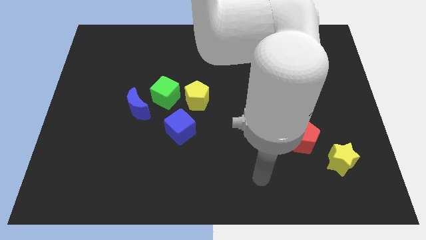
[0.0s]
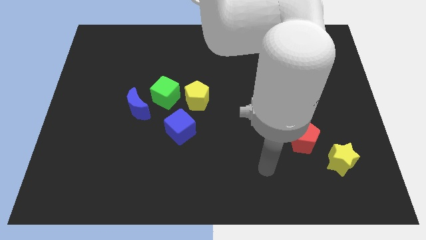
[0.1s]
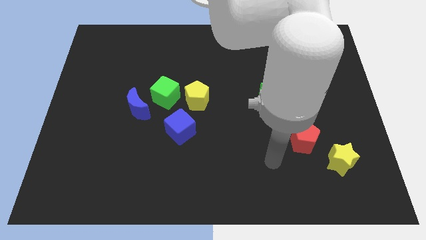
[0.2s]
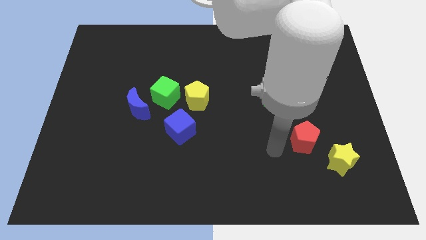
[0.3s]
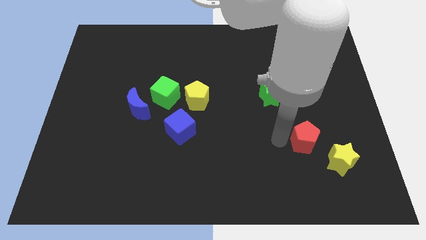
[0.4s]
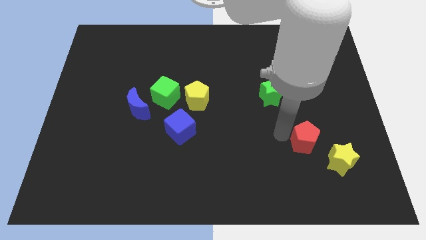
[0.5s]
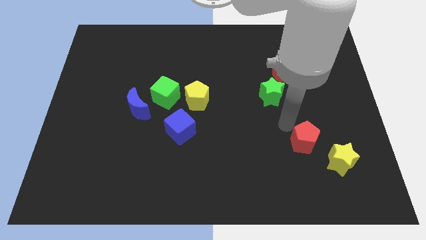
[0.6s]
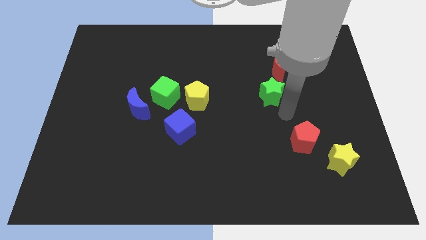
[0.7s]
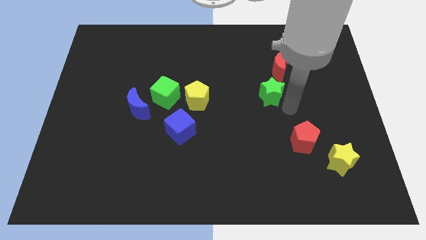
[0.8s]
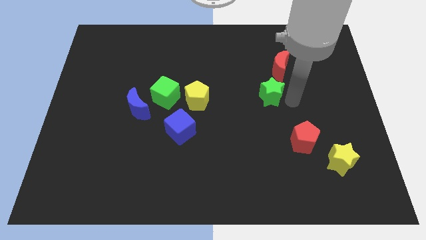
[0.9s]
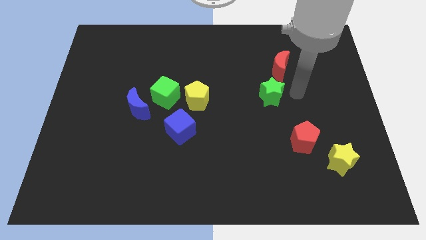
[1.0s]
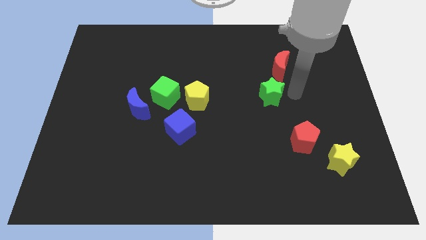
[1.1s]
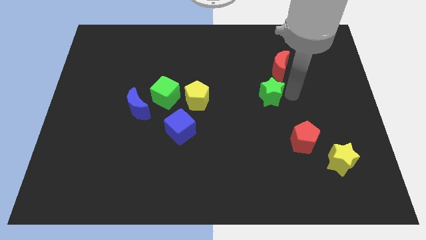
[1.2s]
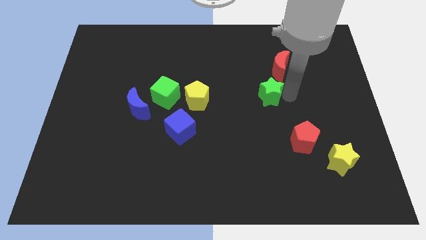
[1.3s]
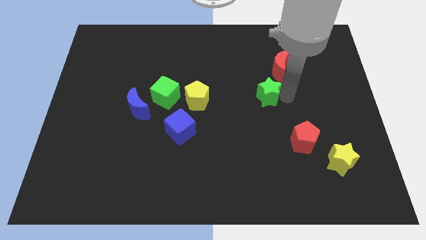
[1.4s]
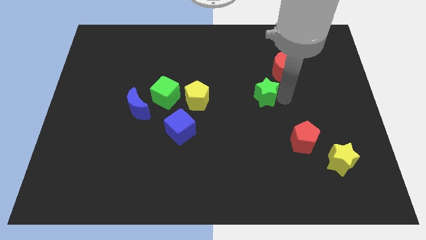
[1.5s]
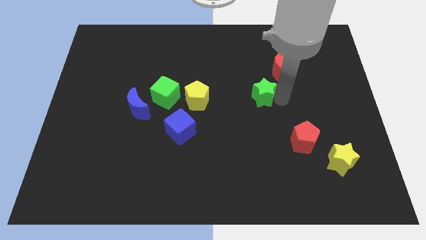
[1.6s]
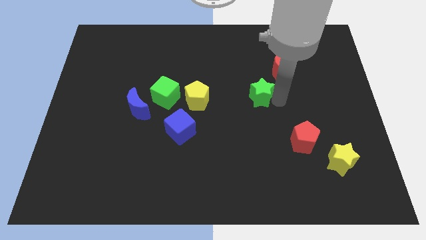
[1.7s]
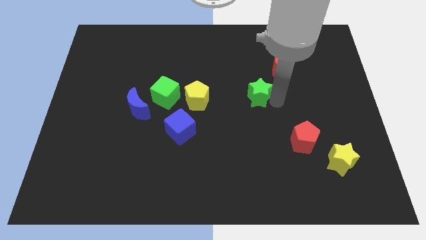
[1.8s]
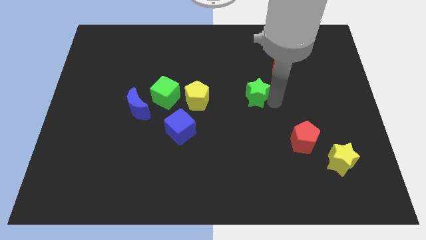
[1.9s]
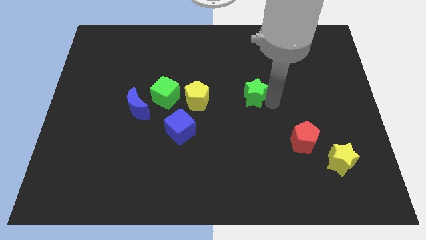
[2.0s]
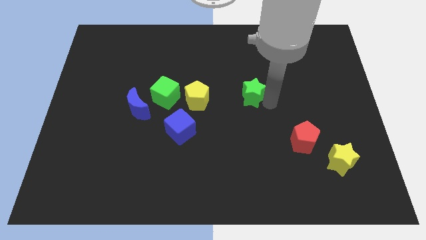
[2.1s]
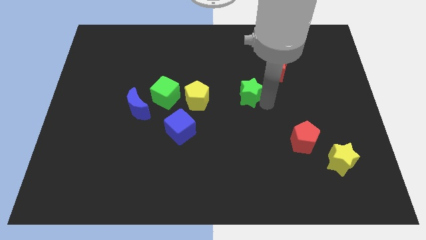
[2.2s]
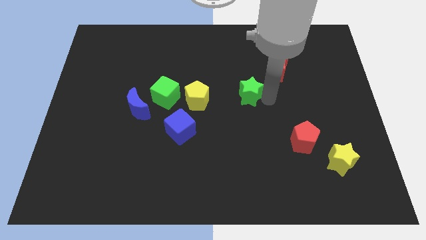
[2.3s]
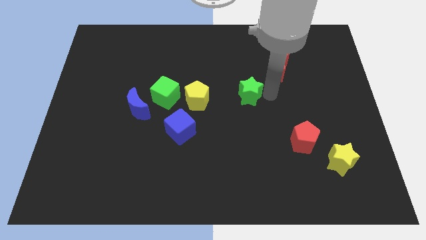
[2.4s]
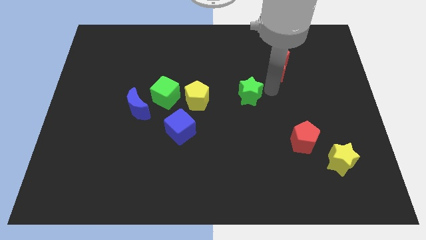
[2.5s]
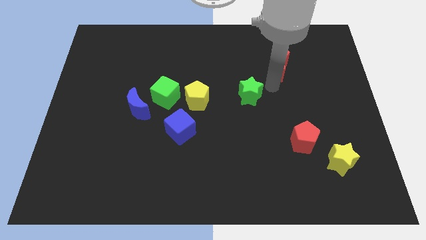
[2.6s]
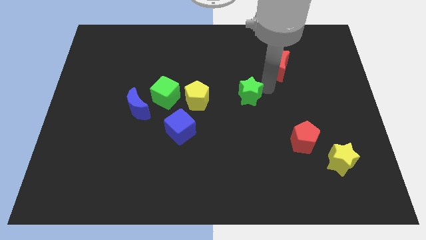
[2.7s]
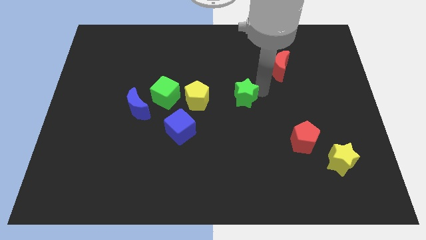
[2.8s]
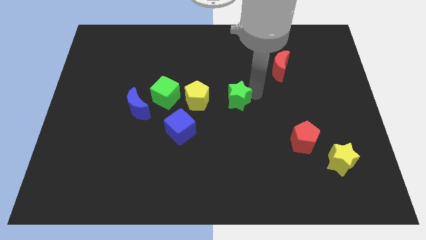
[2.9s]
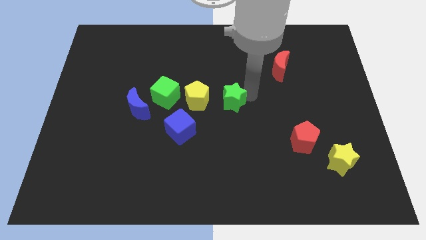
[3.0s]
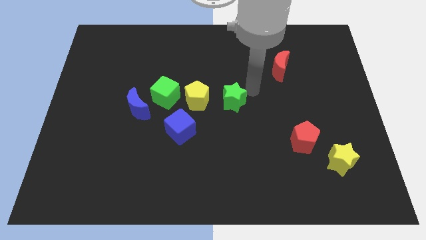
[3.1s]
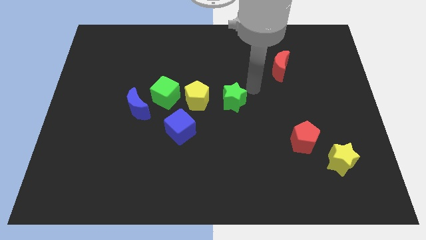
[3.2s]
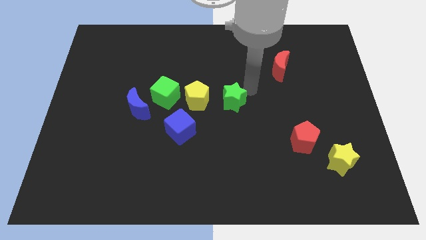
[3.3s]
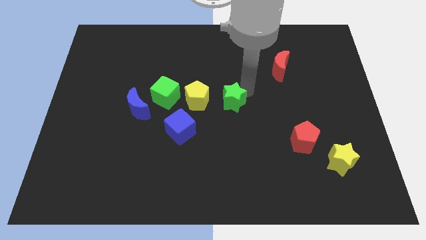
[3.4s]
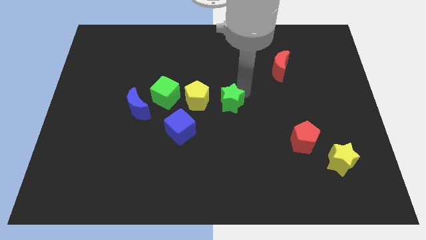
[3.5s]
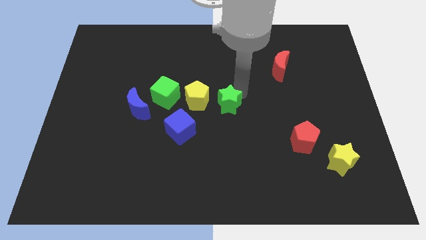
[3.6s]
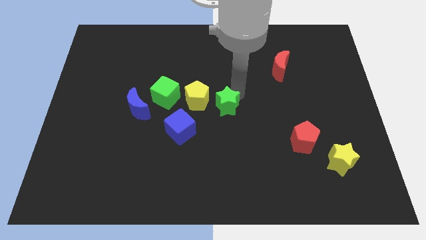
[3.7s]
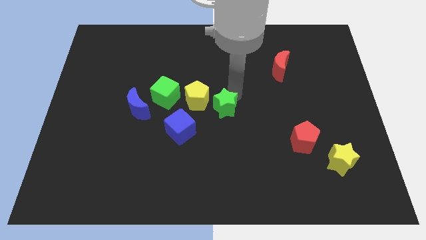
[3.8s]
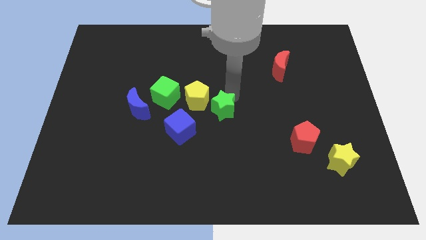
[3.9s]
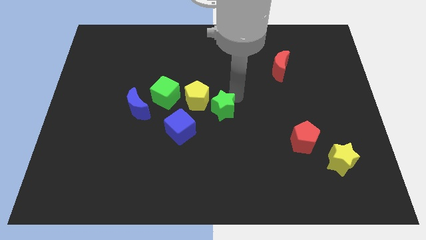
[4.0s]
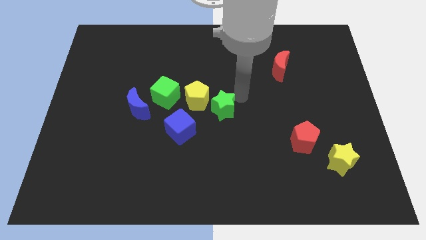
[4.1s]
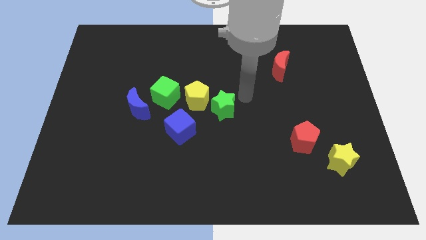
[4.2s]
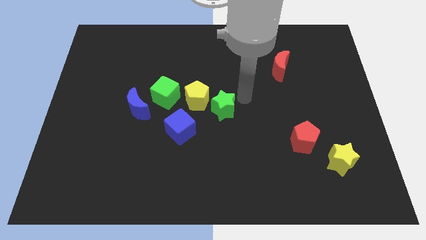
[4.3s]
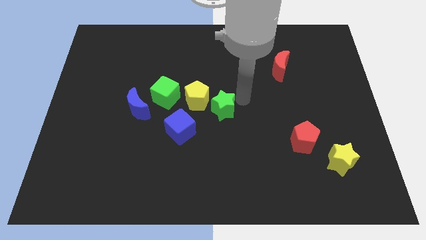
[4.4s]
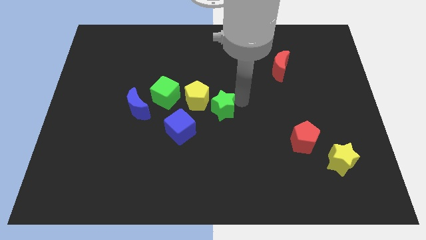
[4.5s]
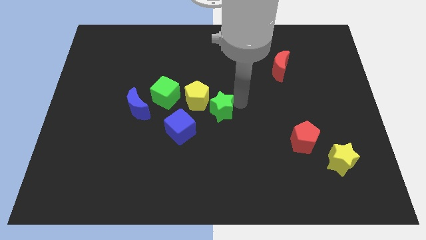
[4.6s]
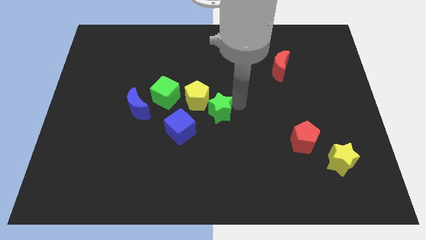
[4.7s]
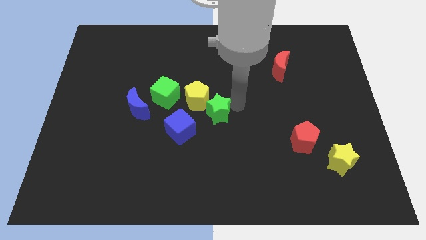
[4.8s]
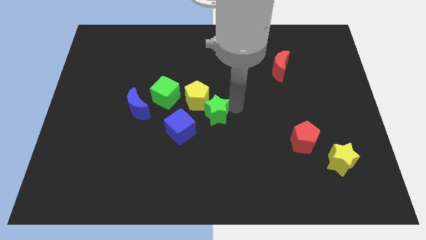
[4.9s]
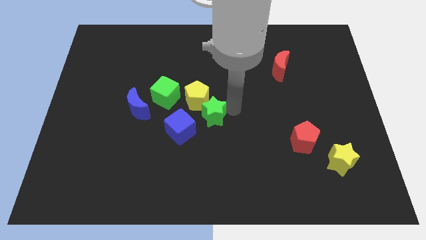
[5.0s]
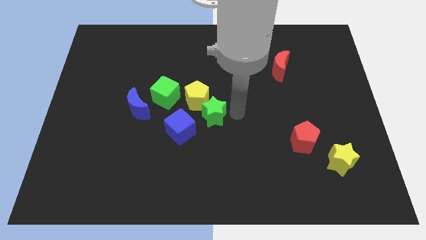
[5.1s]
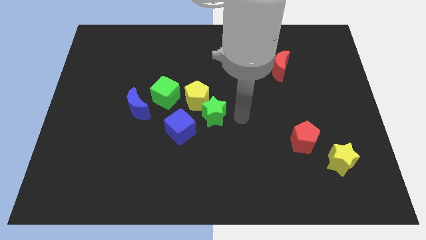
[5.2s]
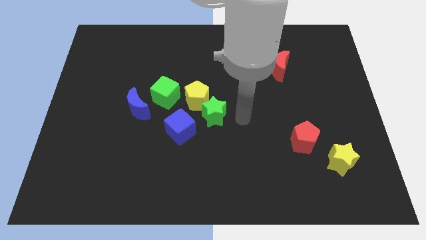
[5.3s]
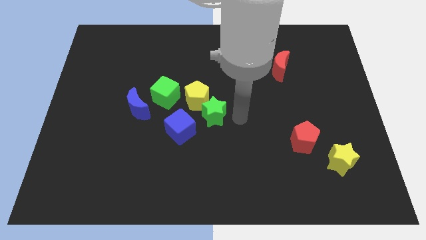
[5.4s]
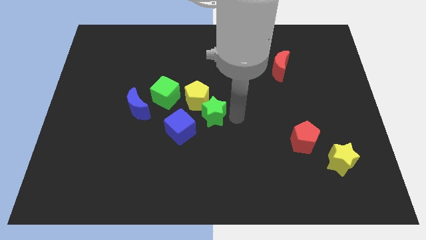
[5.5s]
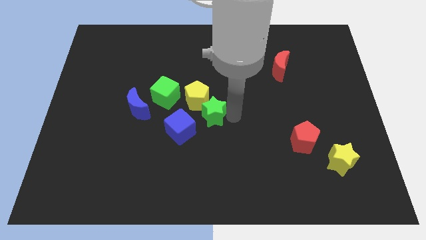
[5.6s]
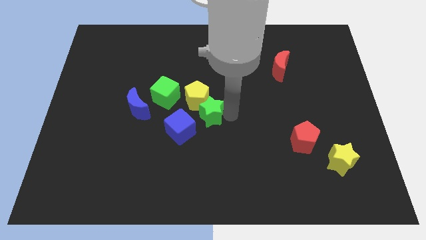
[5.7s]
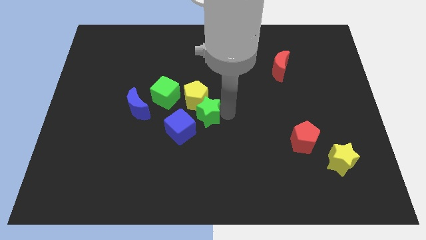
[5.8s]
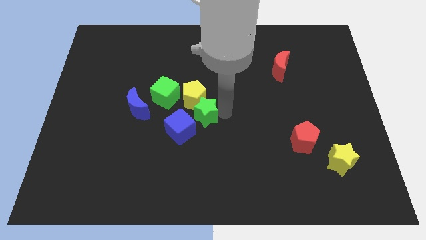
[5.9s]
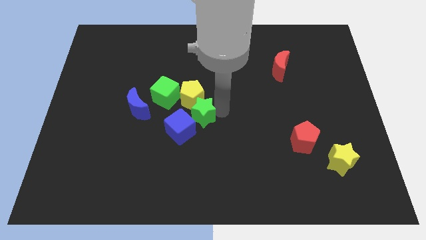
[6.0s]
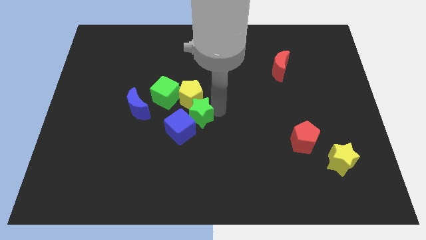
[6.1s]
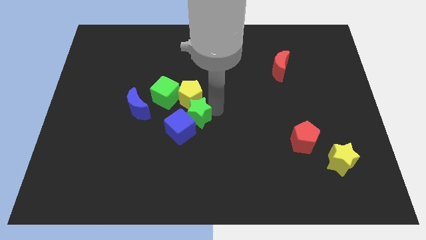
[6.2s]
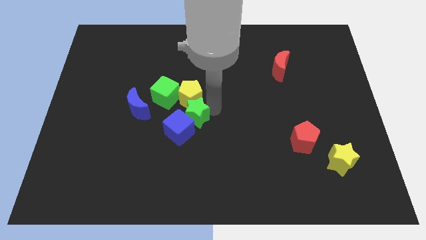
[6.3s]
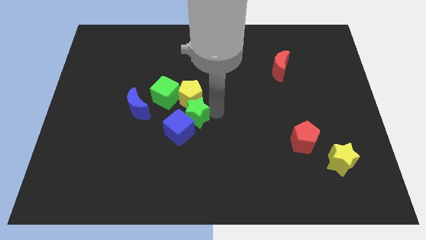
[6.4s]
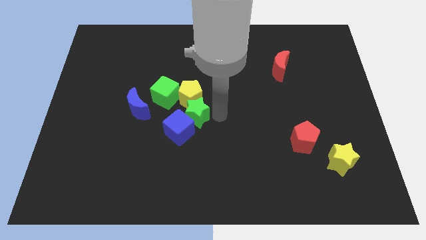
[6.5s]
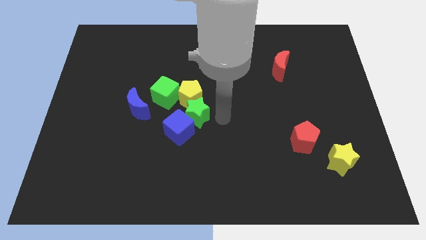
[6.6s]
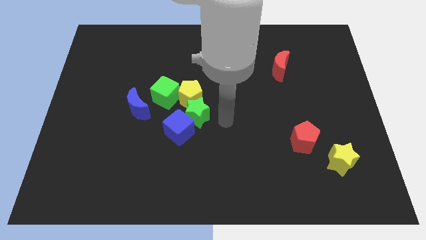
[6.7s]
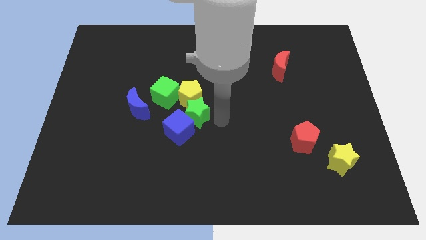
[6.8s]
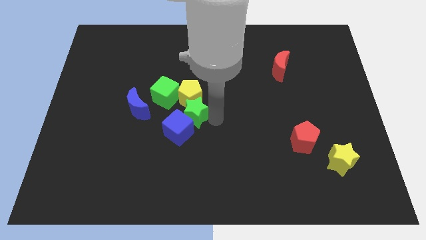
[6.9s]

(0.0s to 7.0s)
slide the green star to the bottom left side of the yellow pentagon
